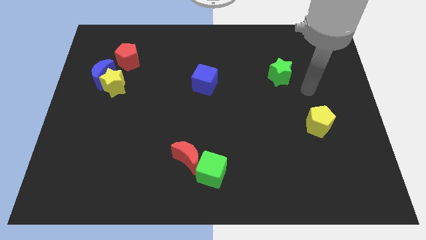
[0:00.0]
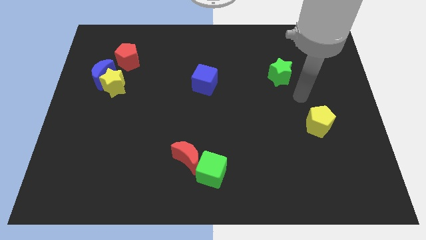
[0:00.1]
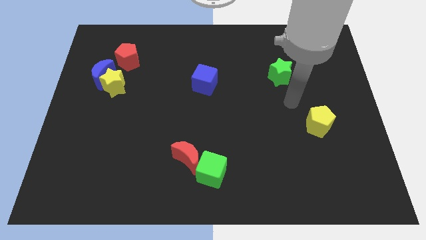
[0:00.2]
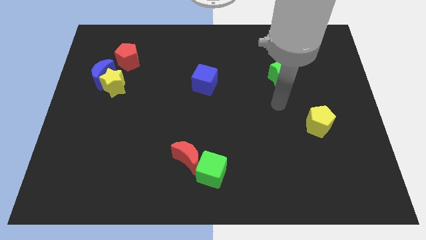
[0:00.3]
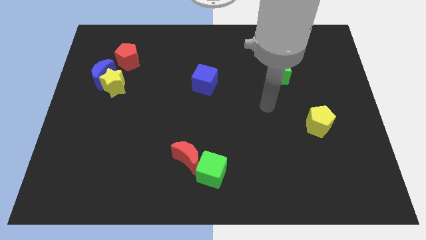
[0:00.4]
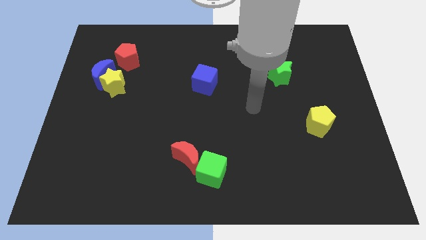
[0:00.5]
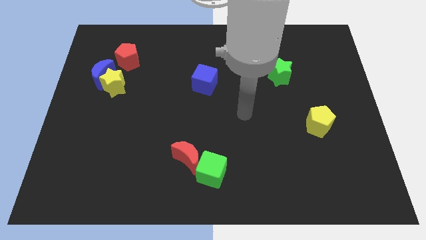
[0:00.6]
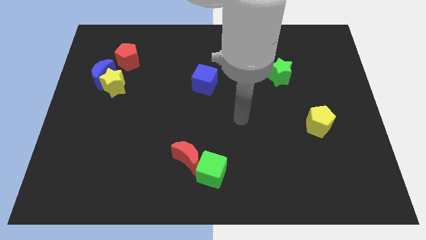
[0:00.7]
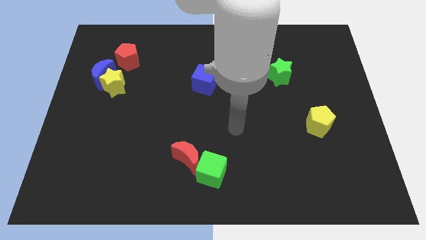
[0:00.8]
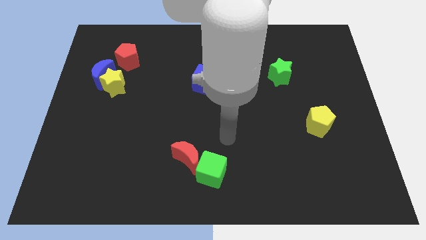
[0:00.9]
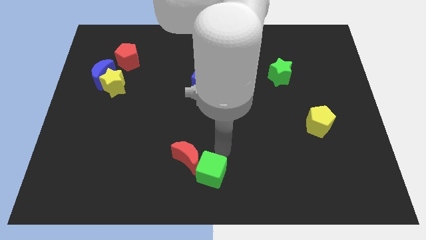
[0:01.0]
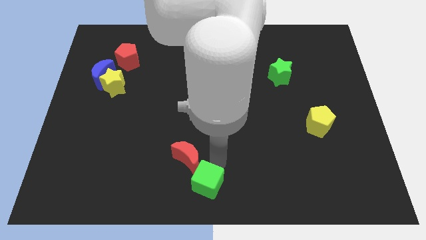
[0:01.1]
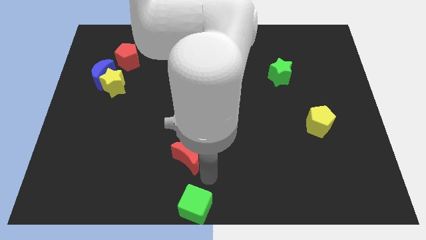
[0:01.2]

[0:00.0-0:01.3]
move the red moon away from the green cube

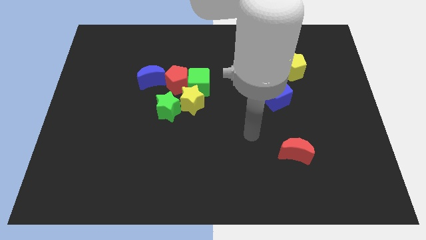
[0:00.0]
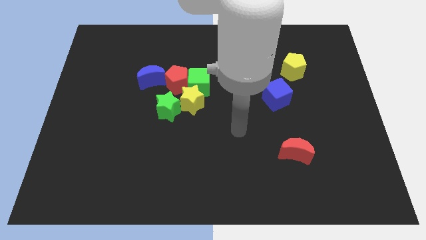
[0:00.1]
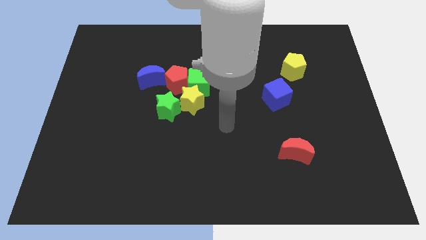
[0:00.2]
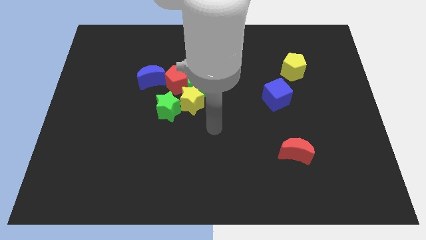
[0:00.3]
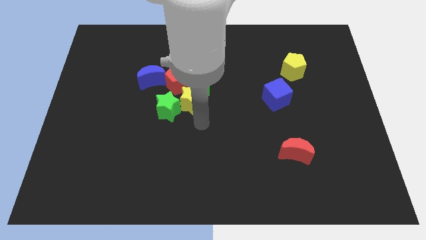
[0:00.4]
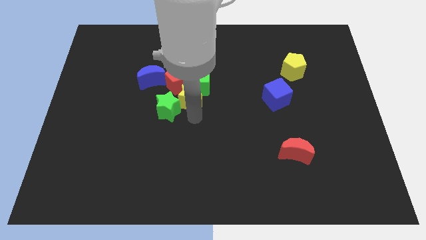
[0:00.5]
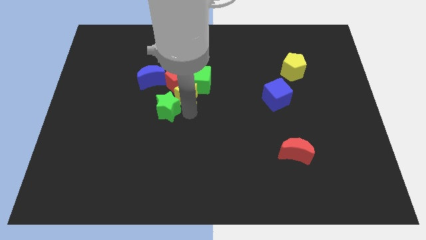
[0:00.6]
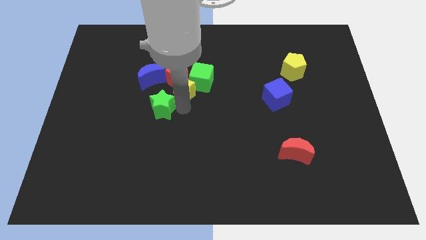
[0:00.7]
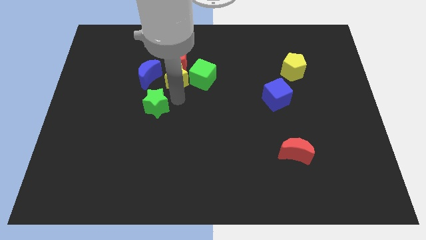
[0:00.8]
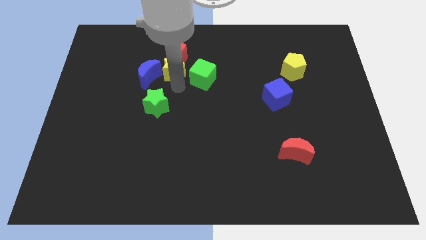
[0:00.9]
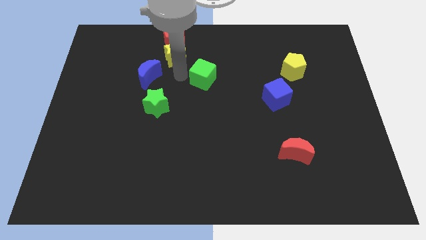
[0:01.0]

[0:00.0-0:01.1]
pull the green cube apart from the red pentagon and yellow star

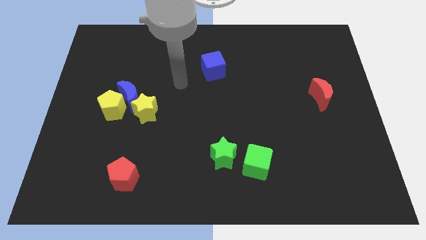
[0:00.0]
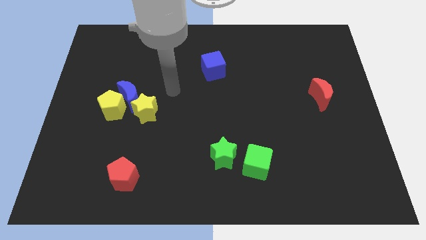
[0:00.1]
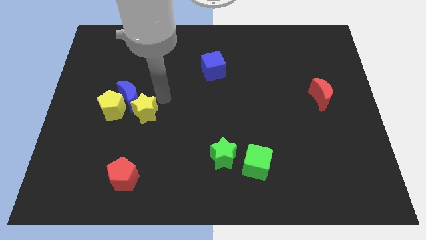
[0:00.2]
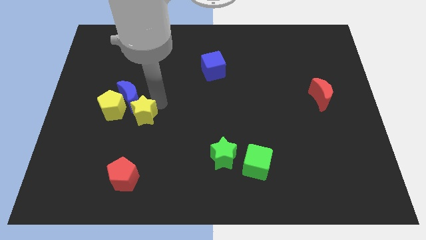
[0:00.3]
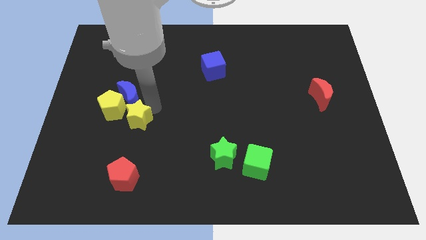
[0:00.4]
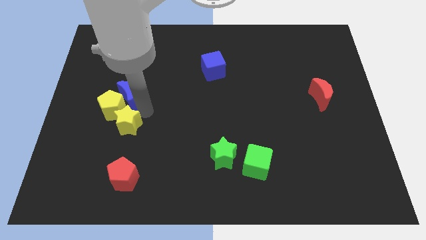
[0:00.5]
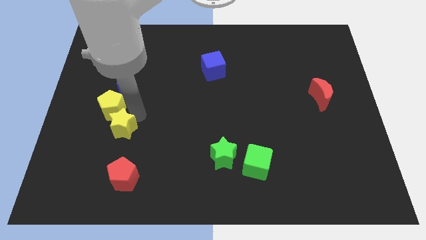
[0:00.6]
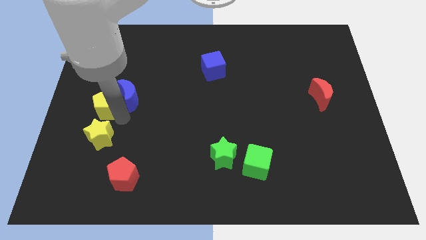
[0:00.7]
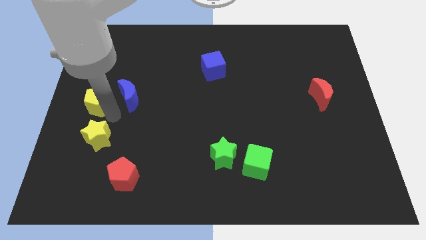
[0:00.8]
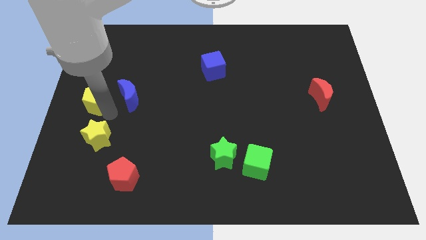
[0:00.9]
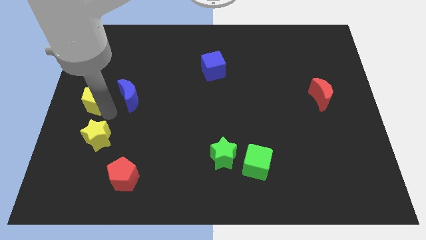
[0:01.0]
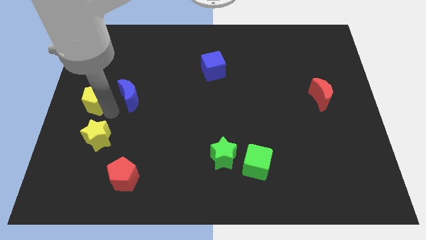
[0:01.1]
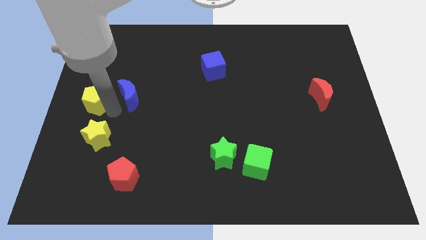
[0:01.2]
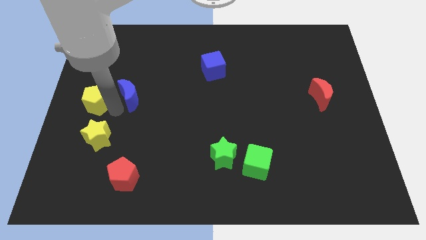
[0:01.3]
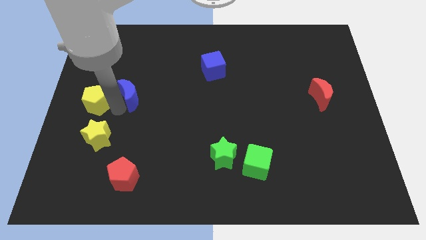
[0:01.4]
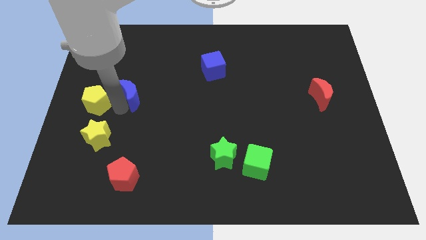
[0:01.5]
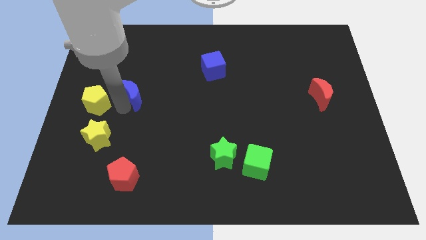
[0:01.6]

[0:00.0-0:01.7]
pull the blue moon apart from the yellow pentagon and yellow star

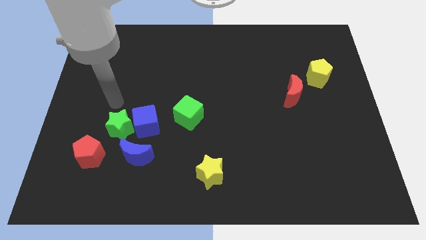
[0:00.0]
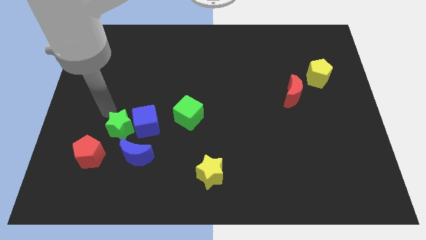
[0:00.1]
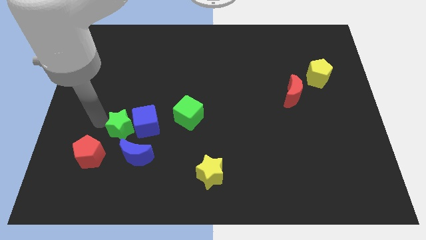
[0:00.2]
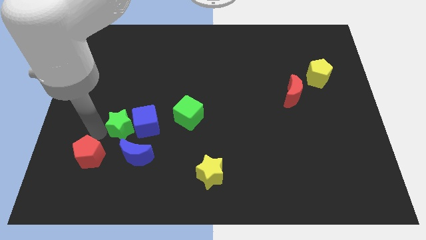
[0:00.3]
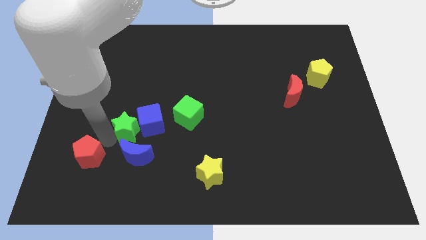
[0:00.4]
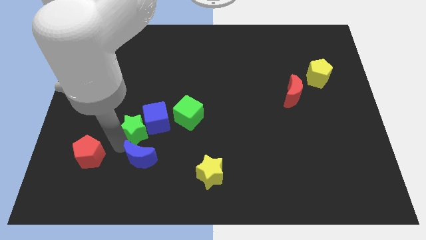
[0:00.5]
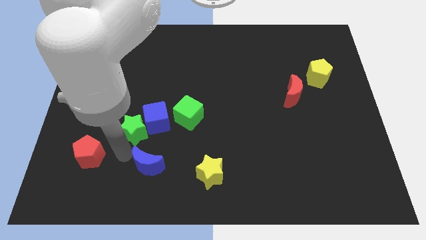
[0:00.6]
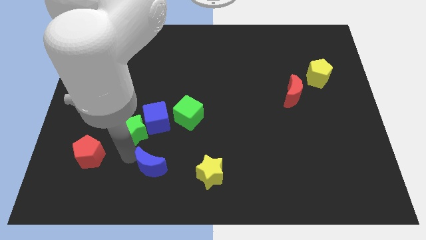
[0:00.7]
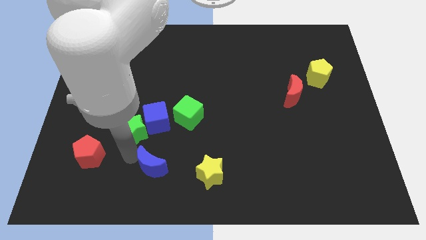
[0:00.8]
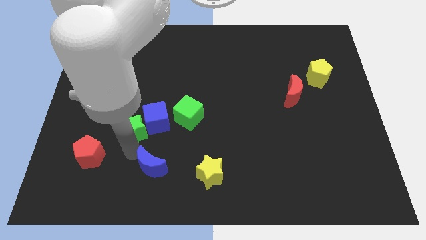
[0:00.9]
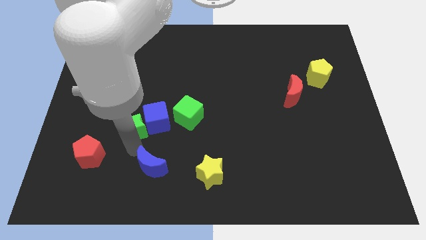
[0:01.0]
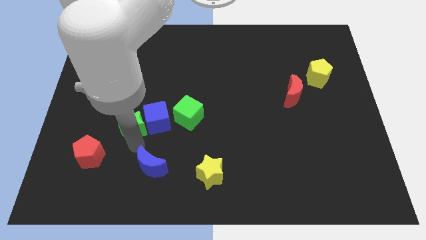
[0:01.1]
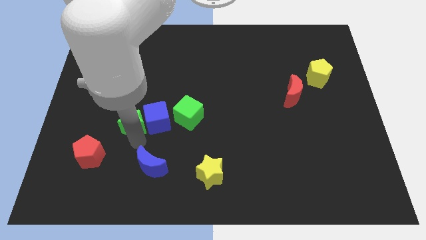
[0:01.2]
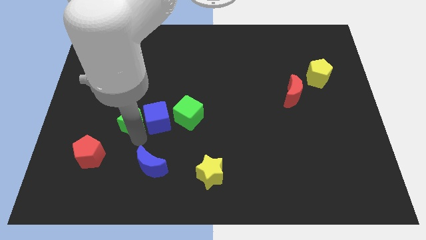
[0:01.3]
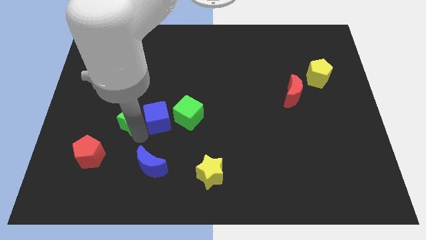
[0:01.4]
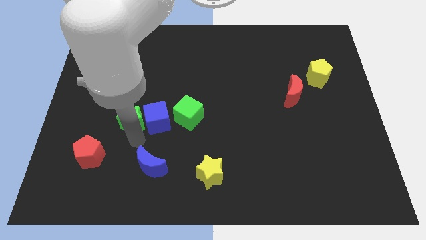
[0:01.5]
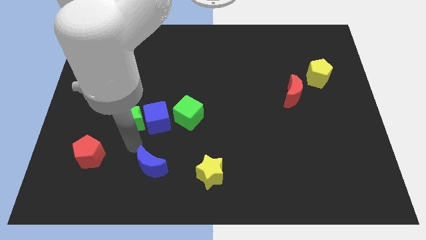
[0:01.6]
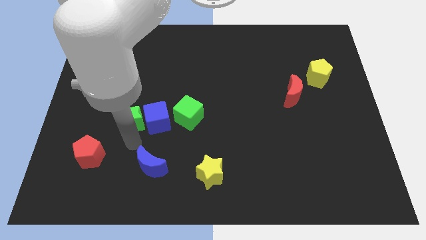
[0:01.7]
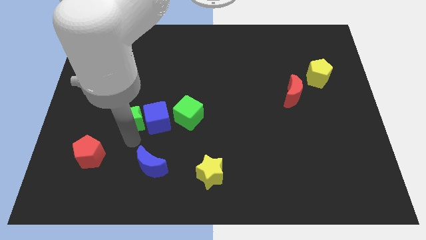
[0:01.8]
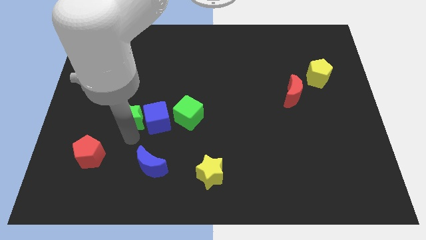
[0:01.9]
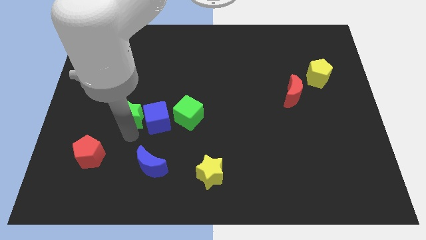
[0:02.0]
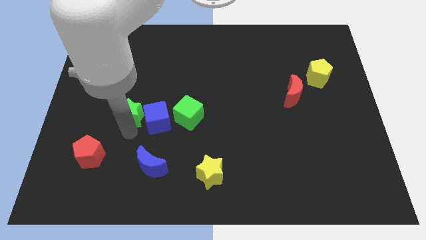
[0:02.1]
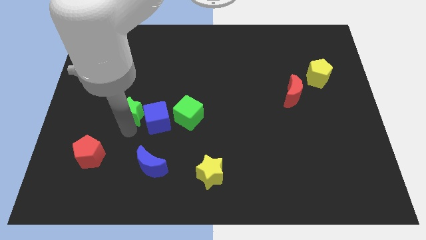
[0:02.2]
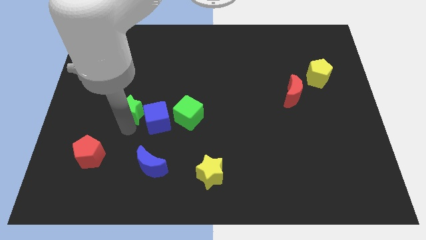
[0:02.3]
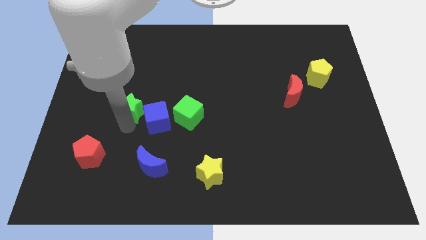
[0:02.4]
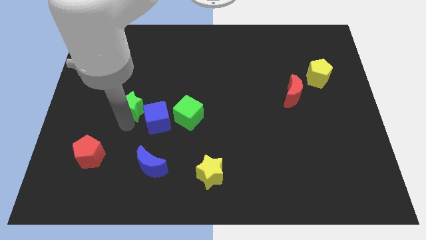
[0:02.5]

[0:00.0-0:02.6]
move the green star away from the group

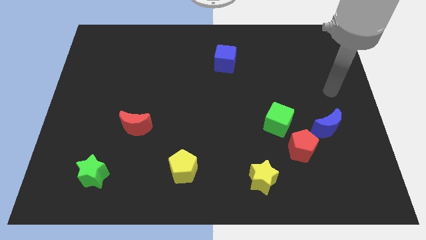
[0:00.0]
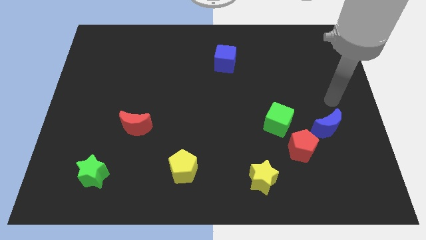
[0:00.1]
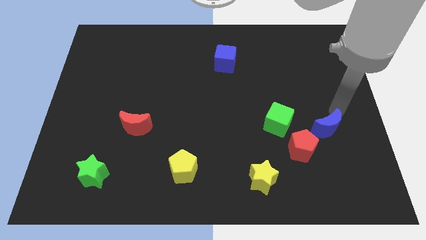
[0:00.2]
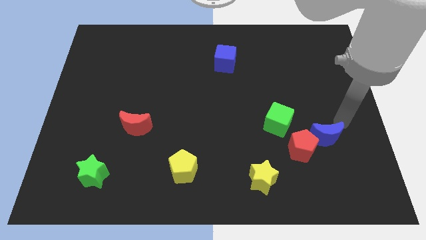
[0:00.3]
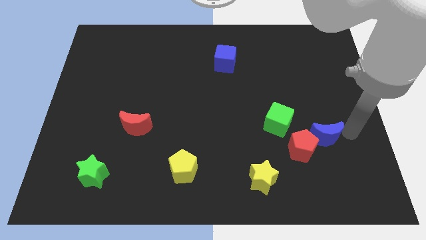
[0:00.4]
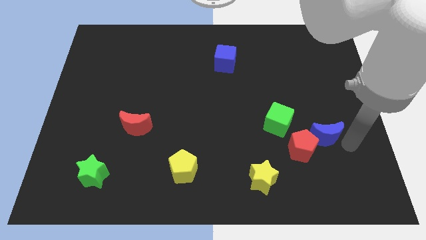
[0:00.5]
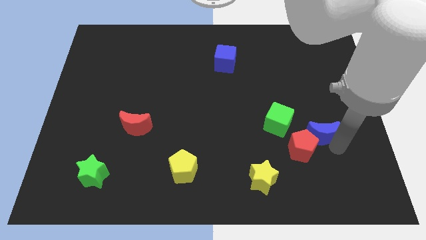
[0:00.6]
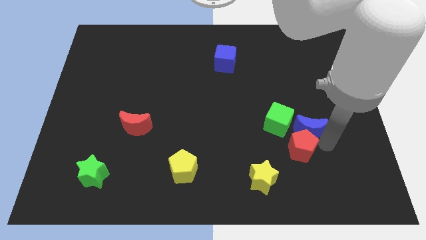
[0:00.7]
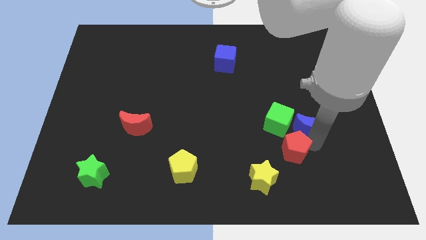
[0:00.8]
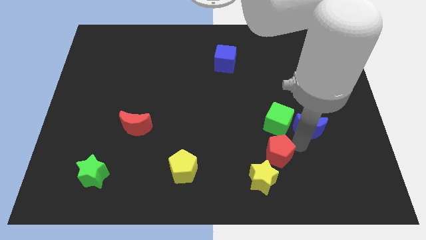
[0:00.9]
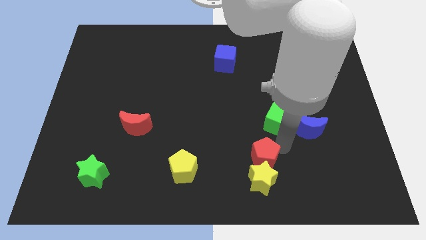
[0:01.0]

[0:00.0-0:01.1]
separate the green cube from the red pentagon

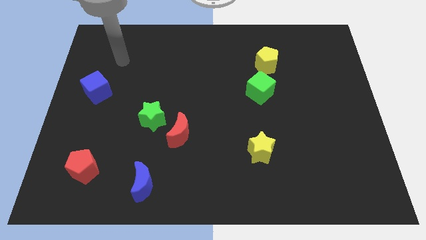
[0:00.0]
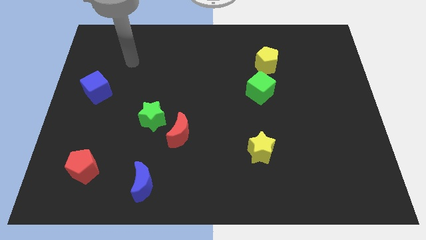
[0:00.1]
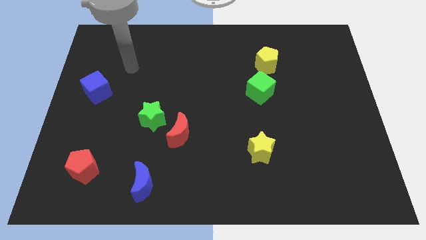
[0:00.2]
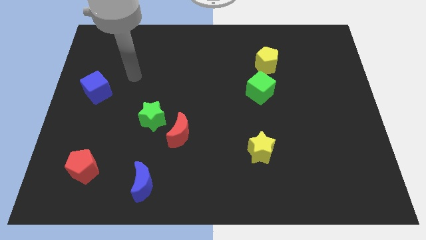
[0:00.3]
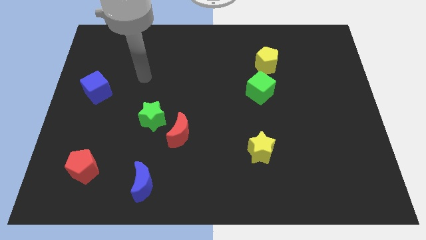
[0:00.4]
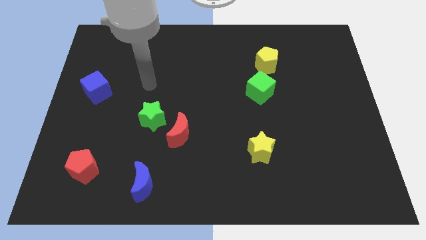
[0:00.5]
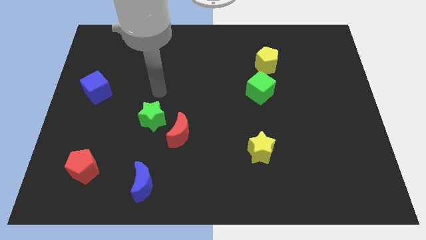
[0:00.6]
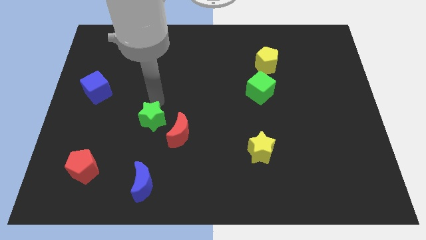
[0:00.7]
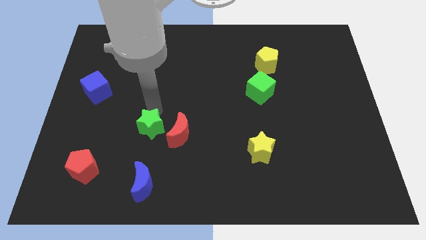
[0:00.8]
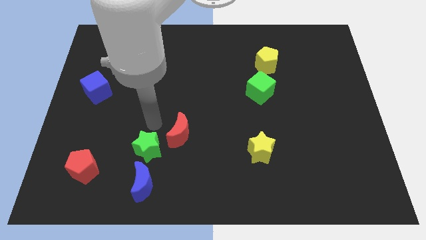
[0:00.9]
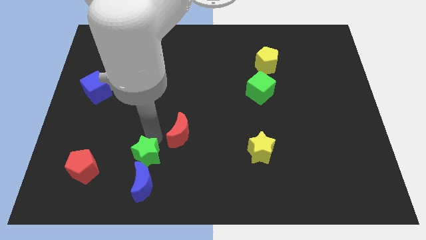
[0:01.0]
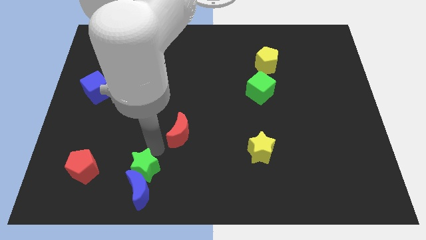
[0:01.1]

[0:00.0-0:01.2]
separate the red moon from the green star
